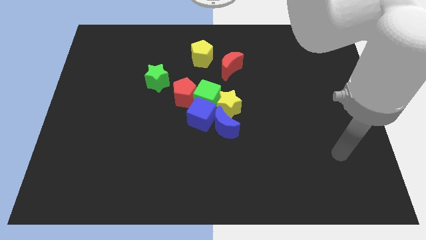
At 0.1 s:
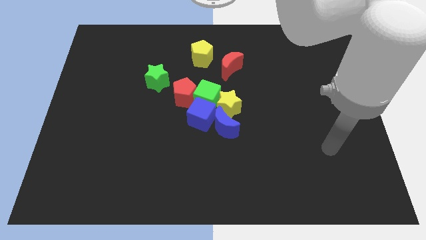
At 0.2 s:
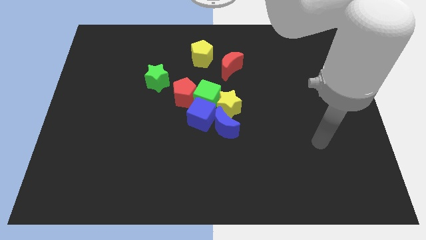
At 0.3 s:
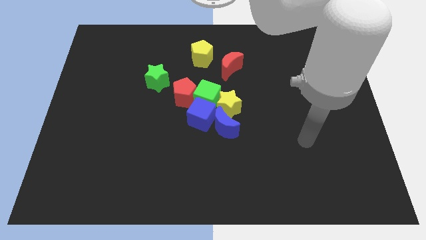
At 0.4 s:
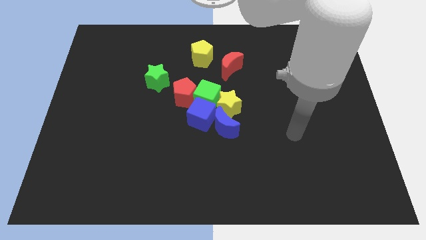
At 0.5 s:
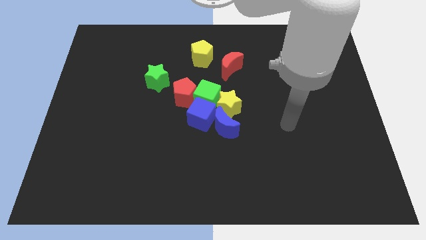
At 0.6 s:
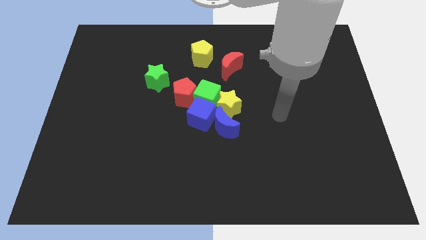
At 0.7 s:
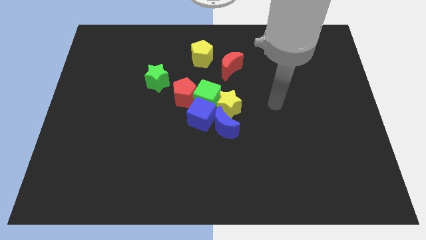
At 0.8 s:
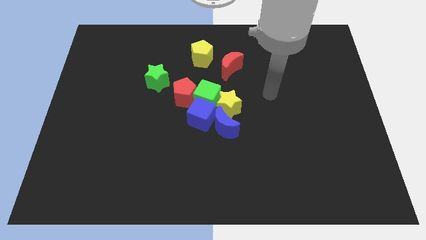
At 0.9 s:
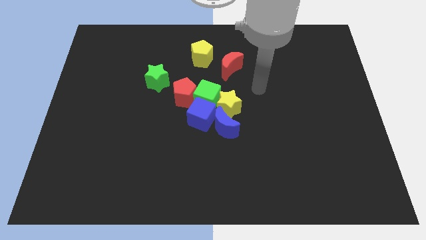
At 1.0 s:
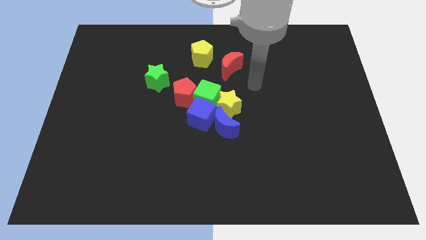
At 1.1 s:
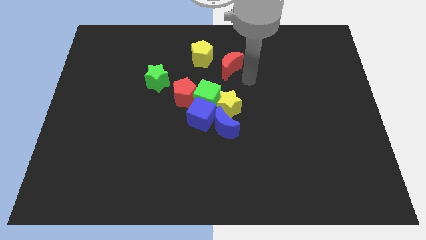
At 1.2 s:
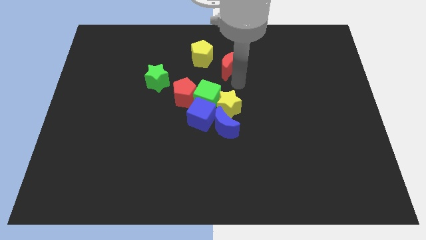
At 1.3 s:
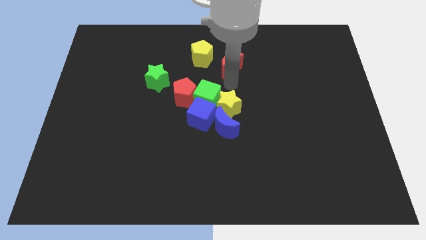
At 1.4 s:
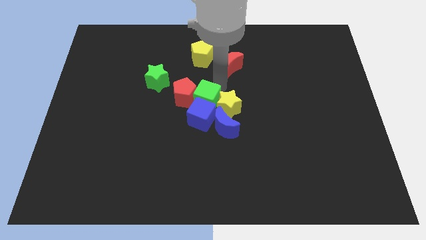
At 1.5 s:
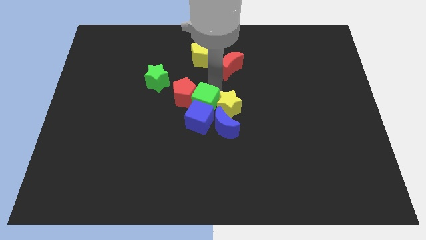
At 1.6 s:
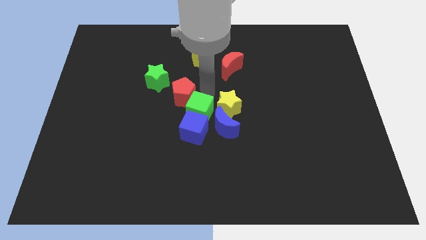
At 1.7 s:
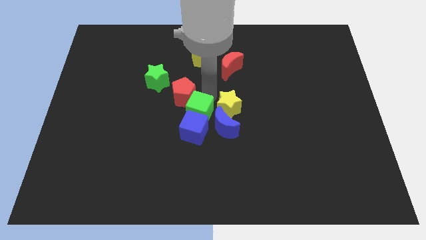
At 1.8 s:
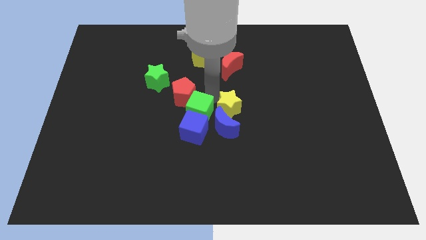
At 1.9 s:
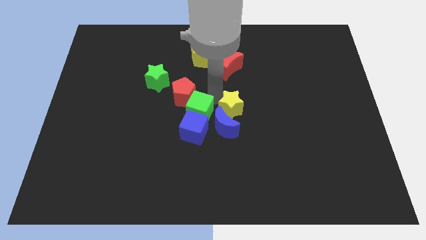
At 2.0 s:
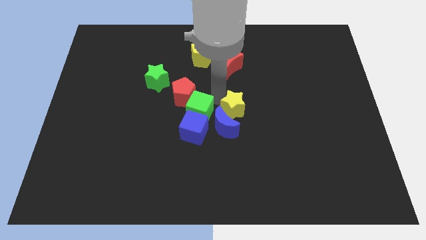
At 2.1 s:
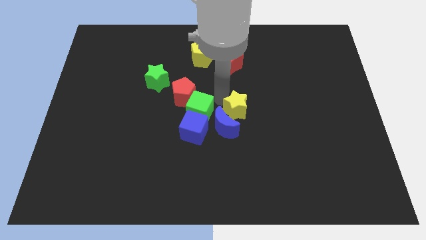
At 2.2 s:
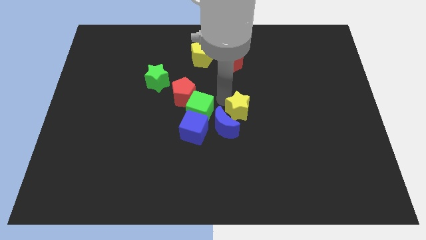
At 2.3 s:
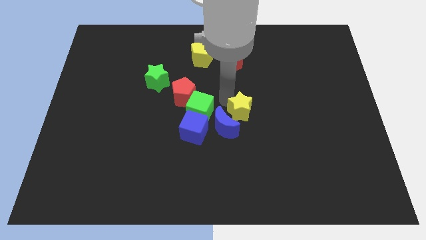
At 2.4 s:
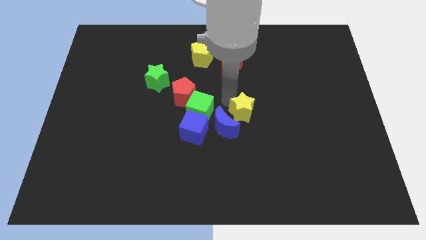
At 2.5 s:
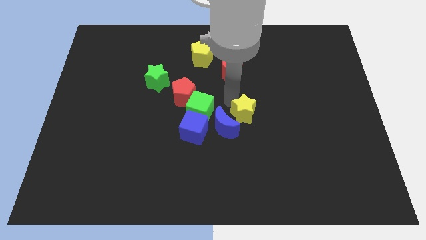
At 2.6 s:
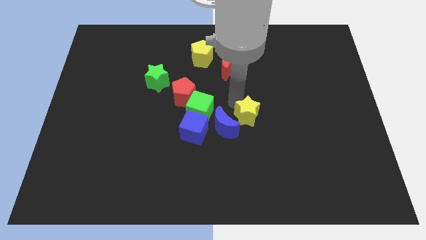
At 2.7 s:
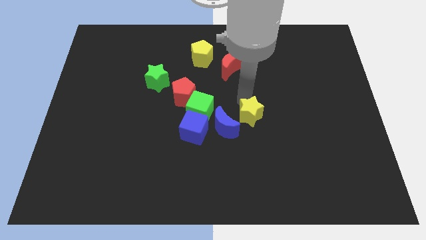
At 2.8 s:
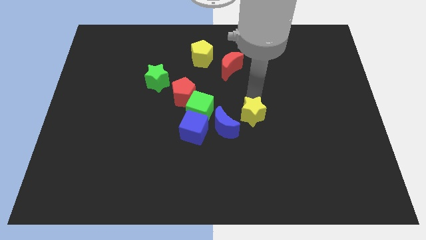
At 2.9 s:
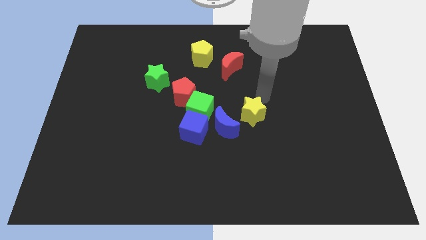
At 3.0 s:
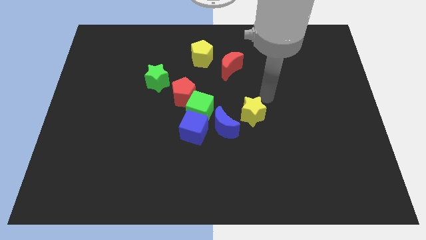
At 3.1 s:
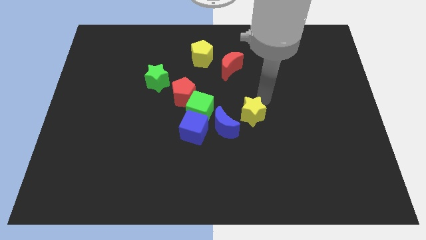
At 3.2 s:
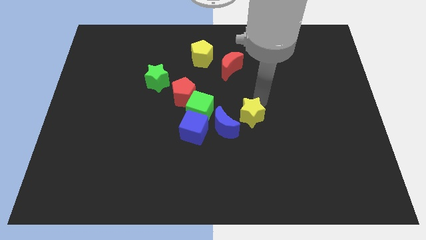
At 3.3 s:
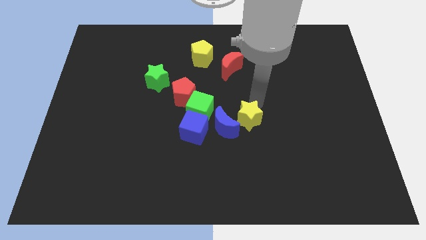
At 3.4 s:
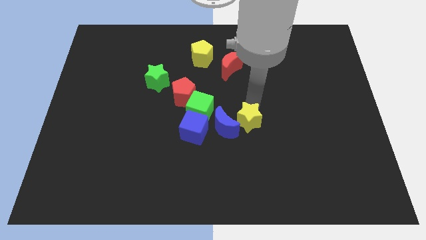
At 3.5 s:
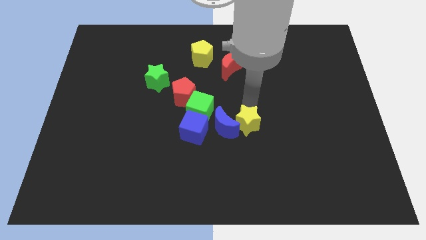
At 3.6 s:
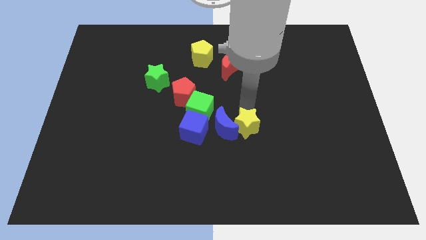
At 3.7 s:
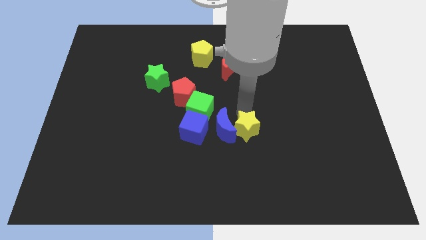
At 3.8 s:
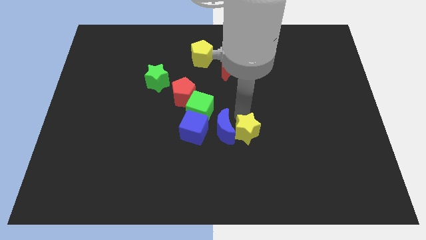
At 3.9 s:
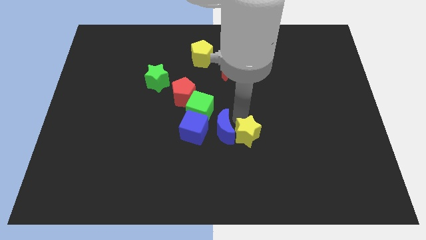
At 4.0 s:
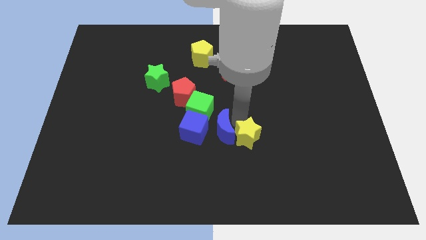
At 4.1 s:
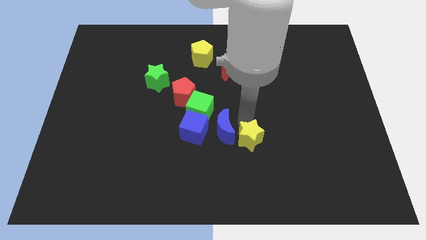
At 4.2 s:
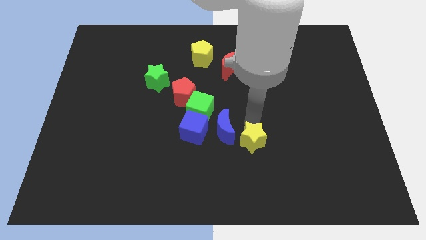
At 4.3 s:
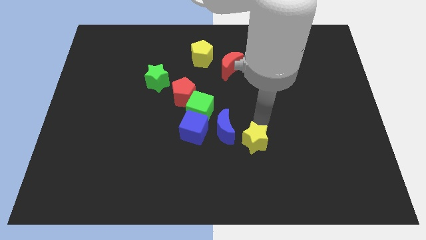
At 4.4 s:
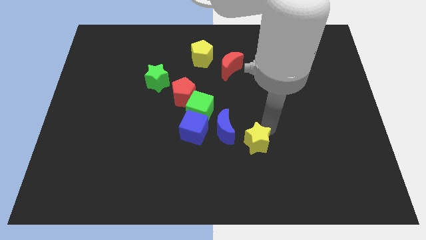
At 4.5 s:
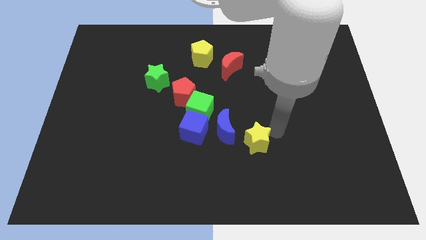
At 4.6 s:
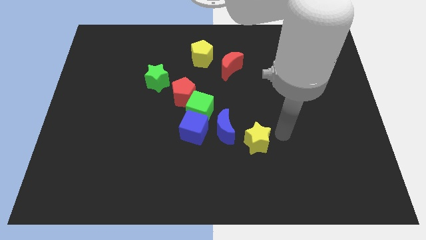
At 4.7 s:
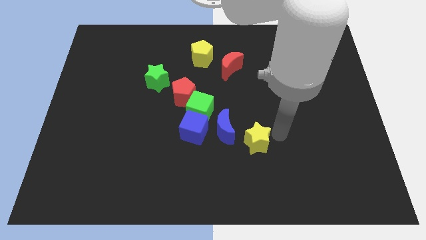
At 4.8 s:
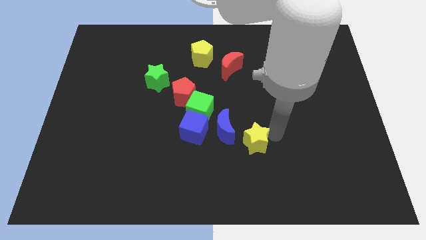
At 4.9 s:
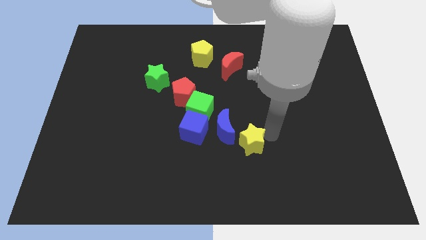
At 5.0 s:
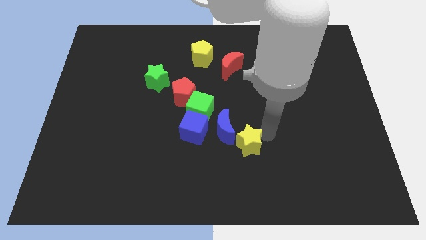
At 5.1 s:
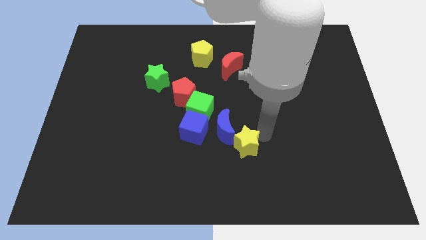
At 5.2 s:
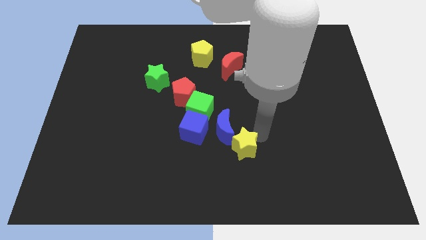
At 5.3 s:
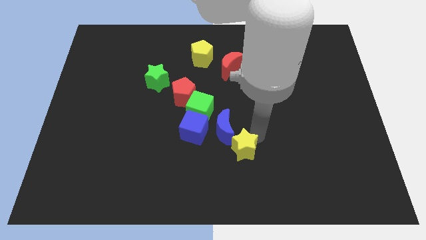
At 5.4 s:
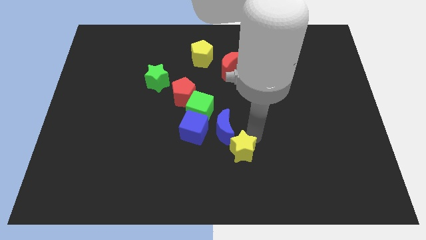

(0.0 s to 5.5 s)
slide the yellow star to the bottom right side of the blue cube

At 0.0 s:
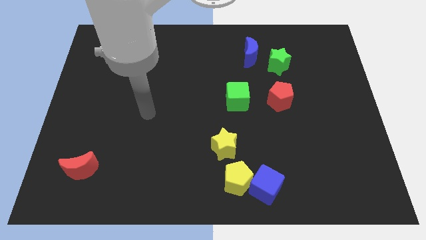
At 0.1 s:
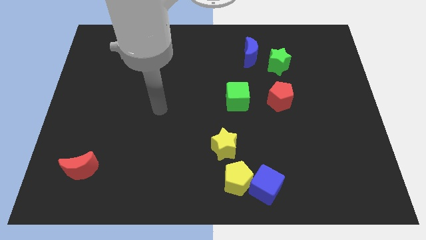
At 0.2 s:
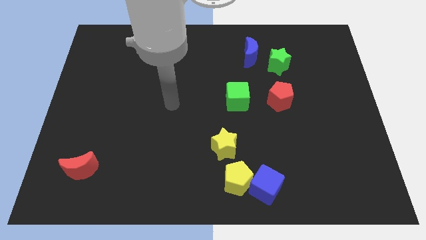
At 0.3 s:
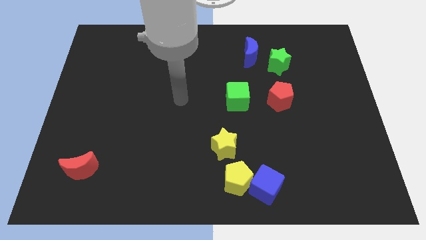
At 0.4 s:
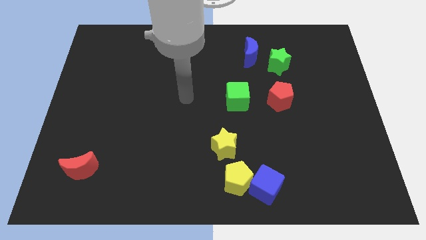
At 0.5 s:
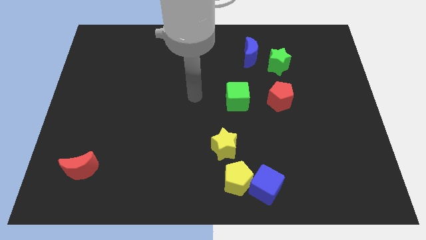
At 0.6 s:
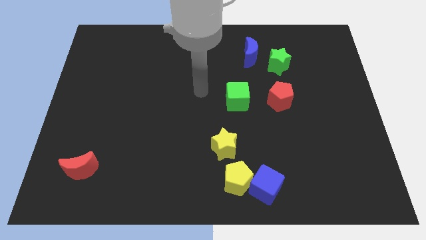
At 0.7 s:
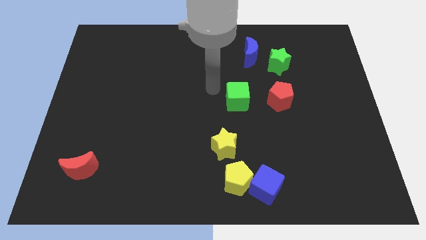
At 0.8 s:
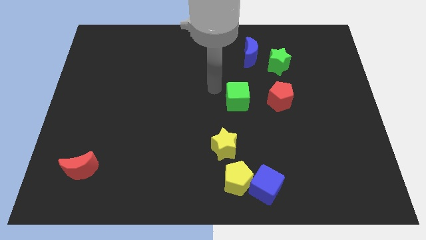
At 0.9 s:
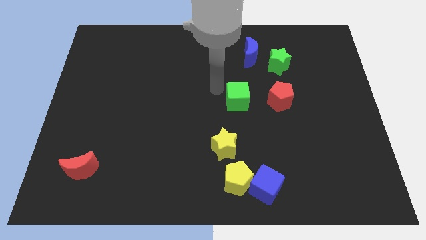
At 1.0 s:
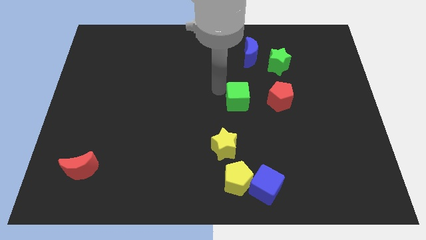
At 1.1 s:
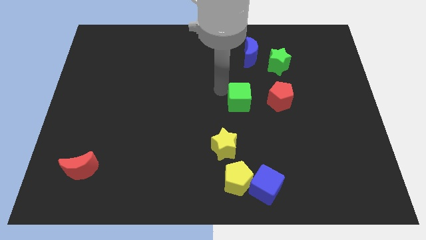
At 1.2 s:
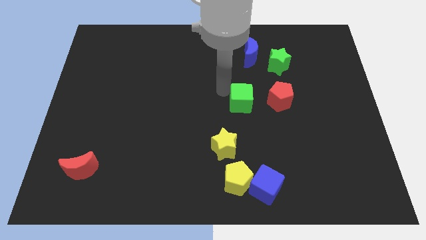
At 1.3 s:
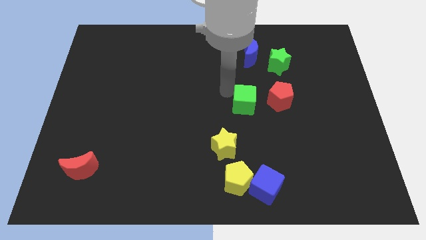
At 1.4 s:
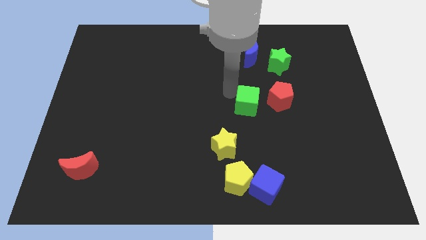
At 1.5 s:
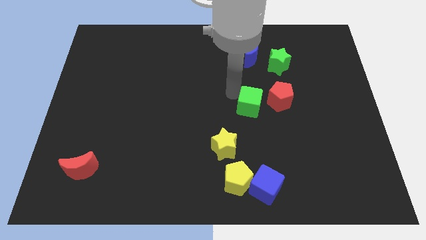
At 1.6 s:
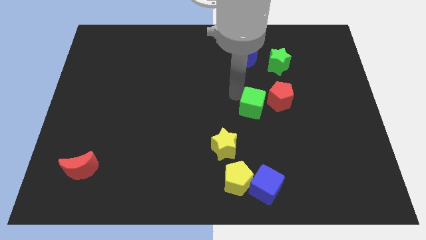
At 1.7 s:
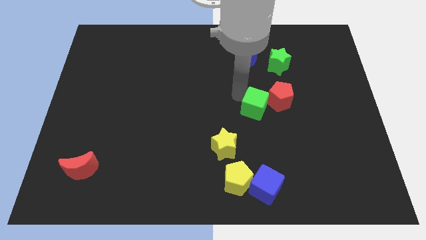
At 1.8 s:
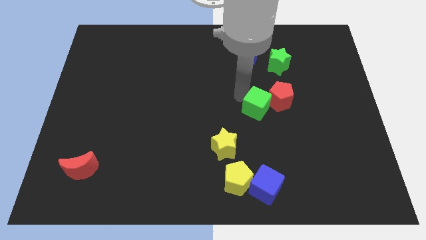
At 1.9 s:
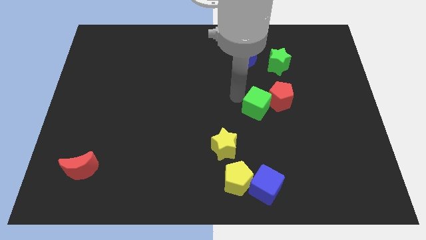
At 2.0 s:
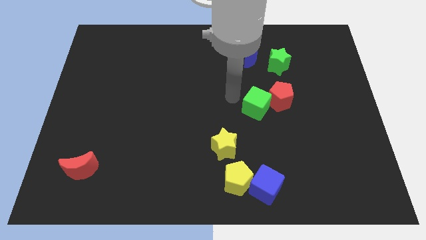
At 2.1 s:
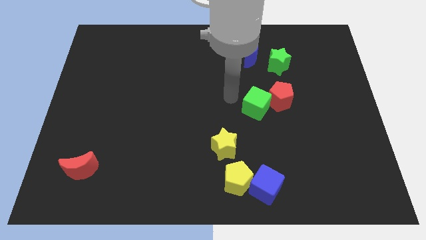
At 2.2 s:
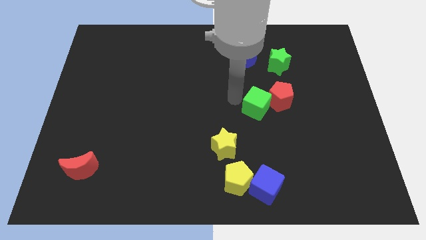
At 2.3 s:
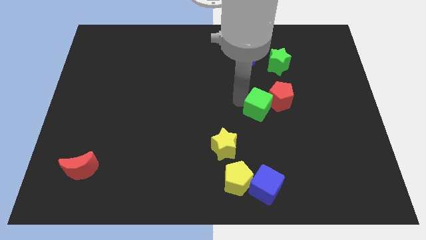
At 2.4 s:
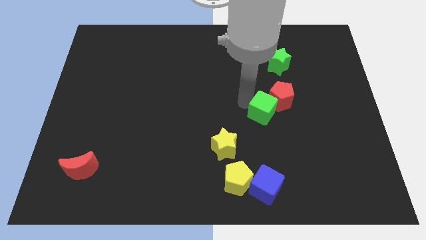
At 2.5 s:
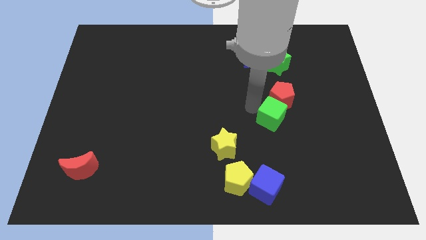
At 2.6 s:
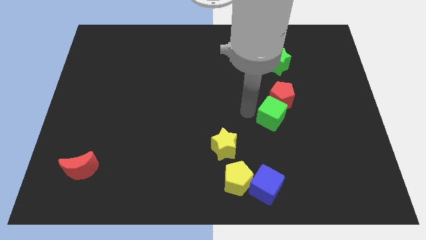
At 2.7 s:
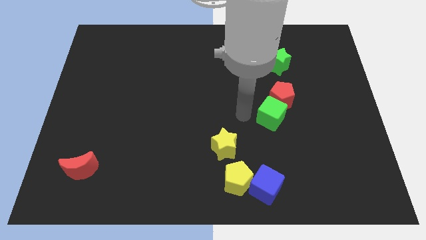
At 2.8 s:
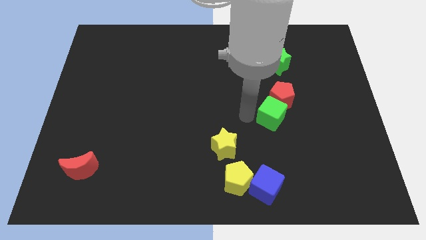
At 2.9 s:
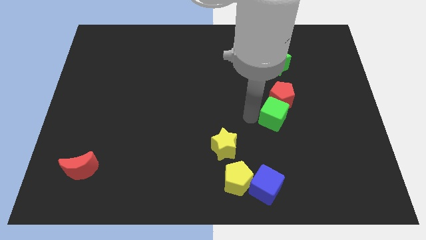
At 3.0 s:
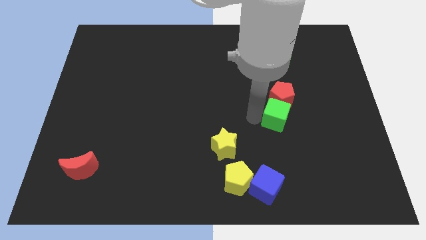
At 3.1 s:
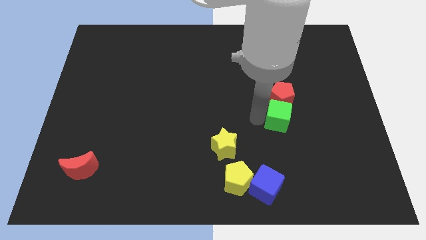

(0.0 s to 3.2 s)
put the green cube to the bottom right side of the red pentagon
